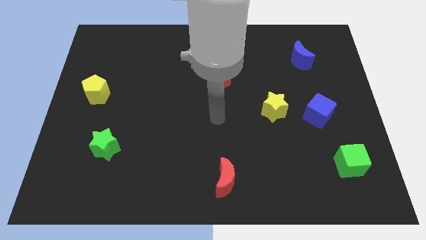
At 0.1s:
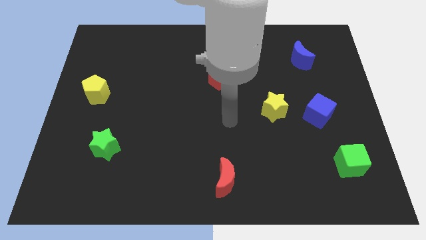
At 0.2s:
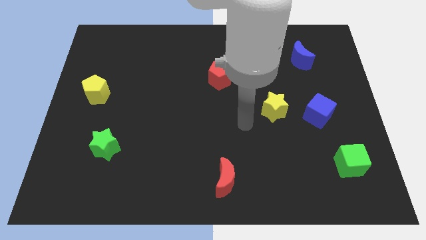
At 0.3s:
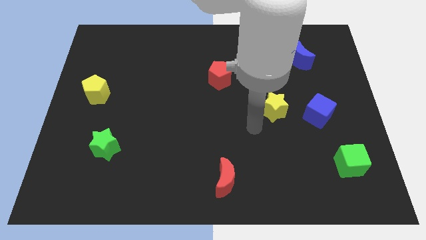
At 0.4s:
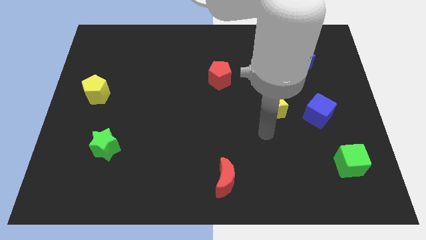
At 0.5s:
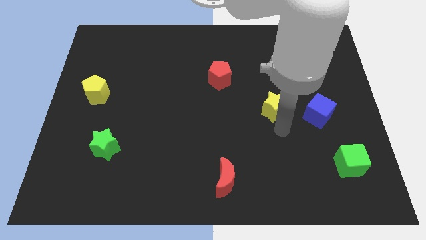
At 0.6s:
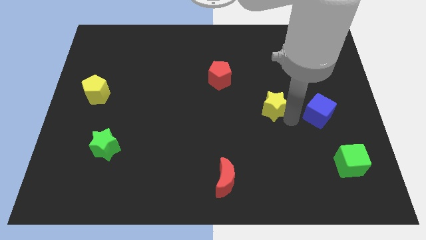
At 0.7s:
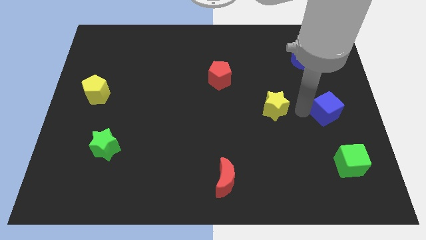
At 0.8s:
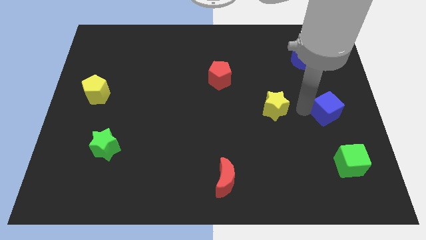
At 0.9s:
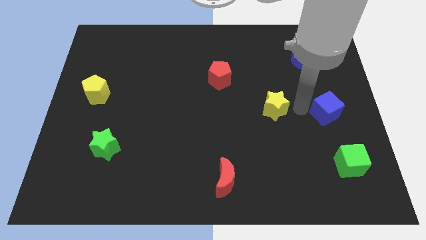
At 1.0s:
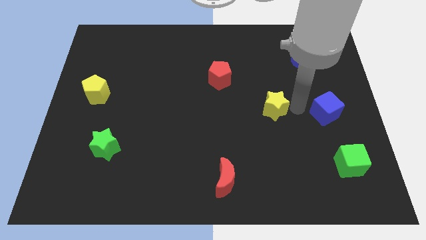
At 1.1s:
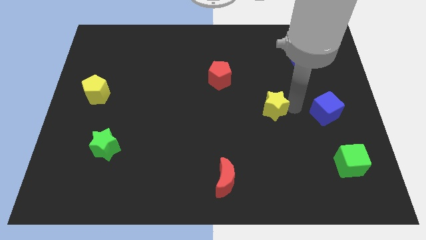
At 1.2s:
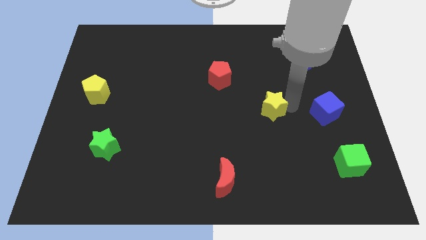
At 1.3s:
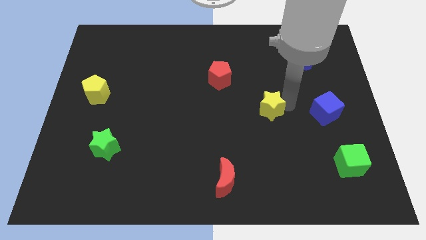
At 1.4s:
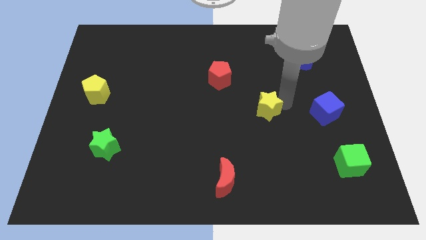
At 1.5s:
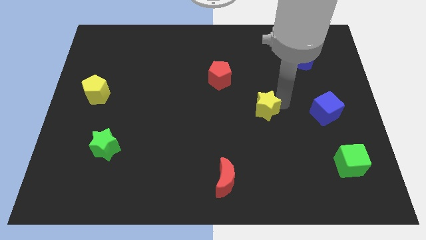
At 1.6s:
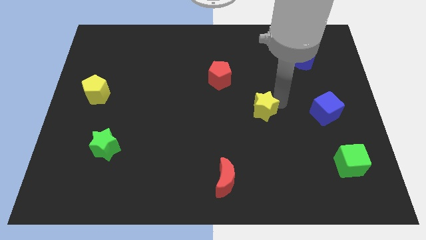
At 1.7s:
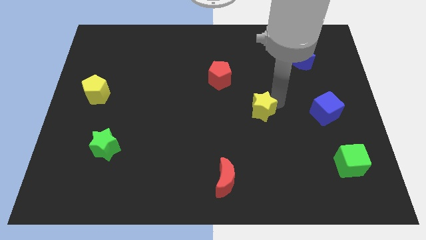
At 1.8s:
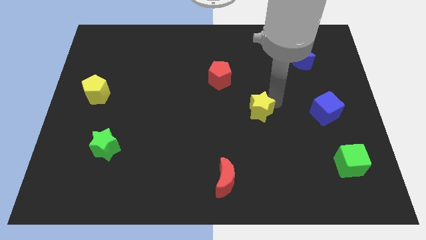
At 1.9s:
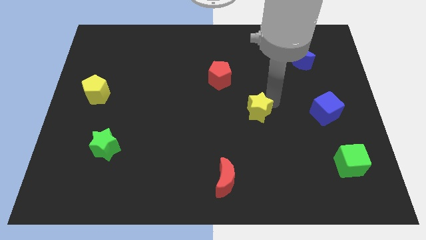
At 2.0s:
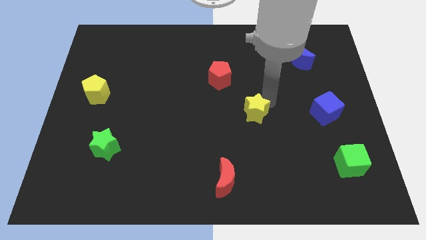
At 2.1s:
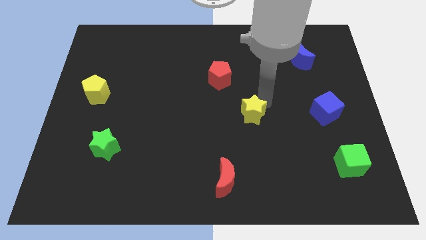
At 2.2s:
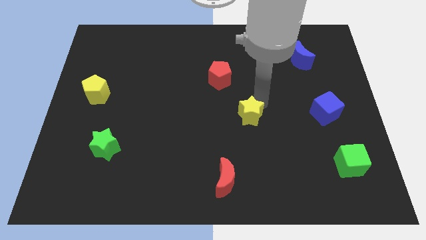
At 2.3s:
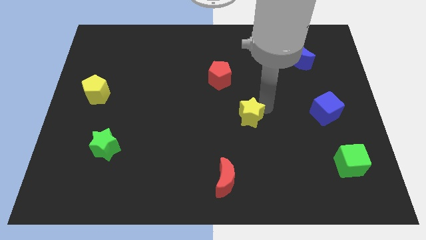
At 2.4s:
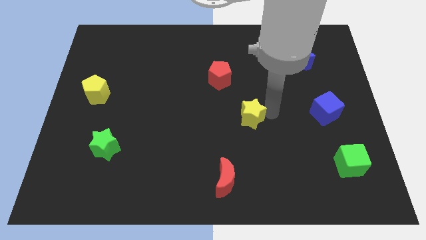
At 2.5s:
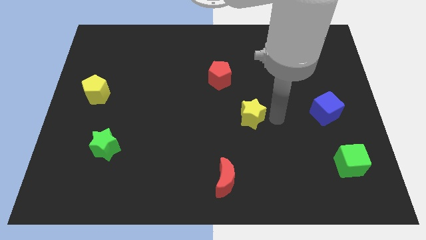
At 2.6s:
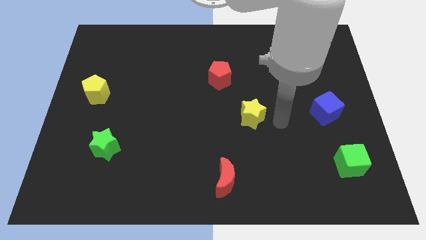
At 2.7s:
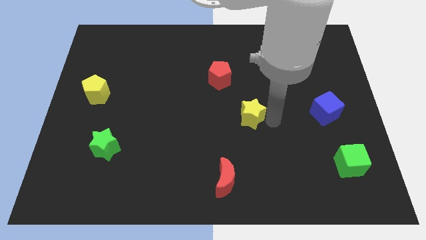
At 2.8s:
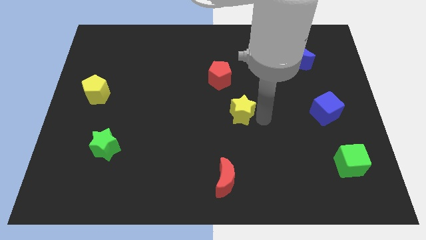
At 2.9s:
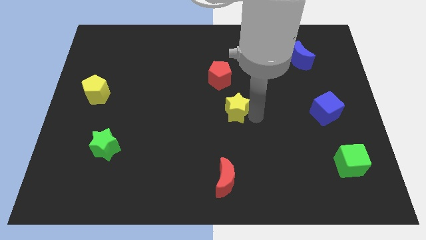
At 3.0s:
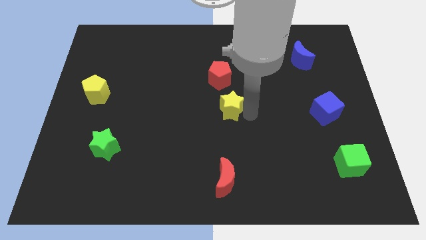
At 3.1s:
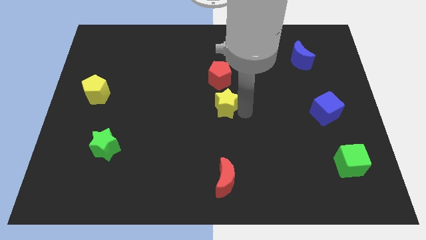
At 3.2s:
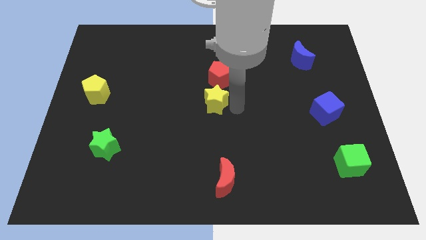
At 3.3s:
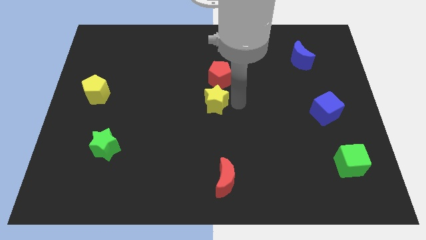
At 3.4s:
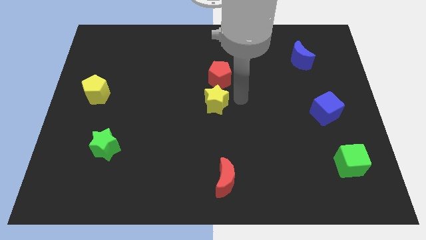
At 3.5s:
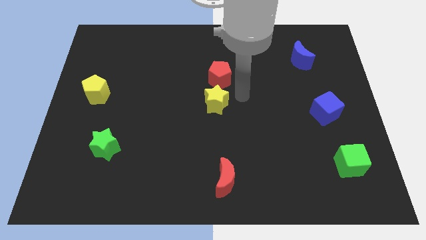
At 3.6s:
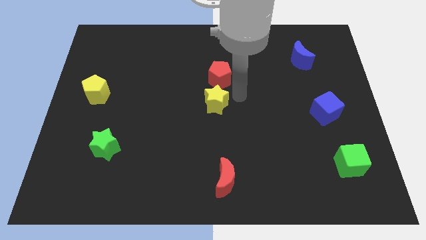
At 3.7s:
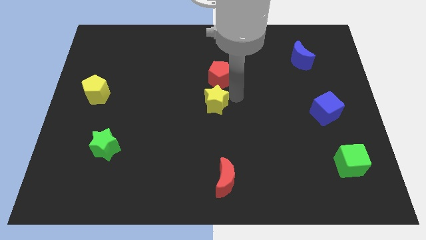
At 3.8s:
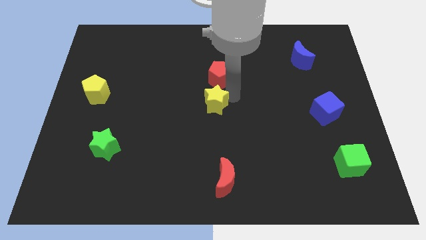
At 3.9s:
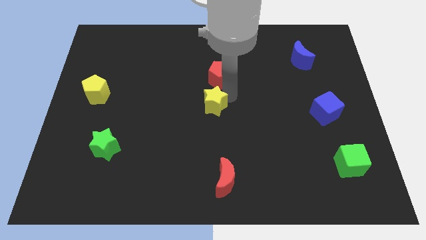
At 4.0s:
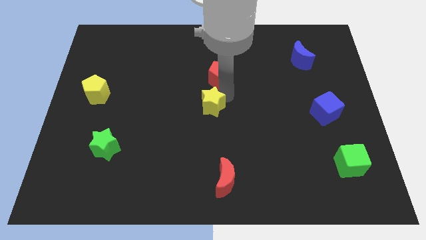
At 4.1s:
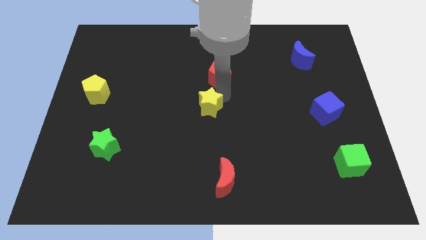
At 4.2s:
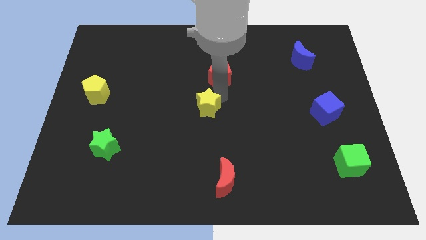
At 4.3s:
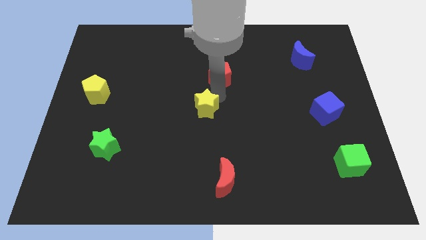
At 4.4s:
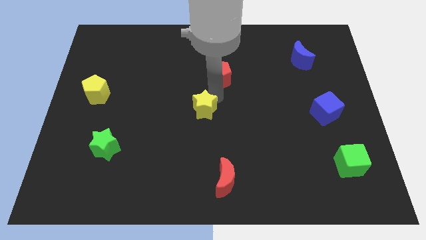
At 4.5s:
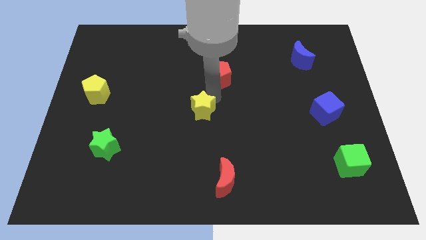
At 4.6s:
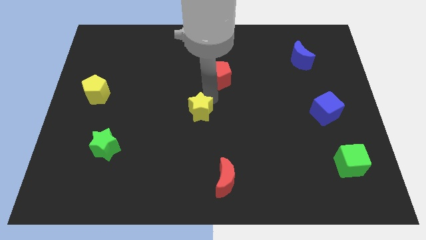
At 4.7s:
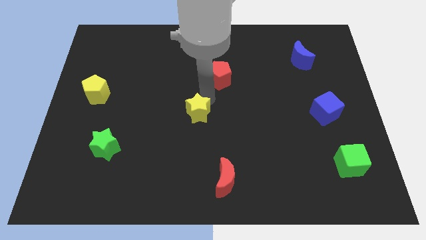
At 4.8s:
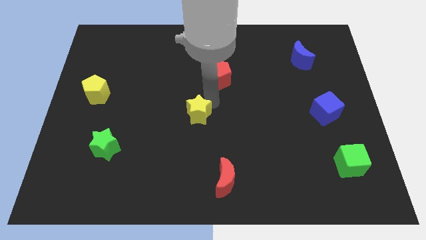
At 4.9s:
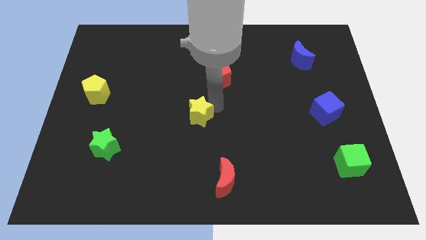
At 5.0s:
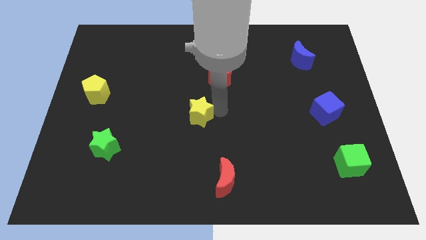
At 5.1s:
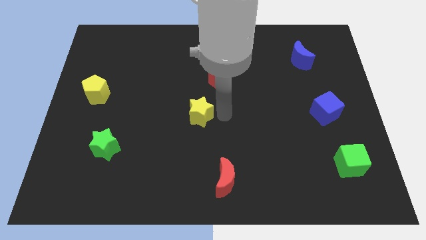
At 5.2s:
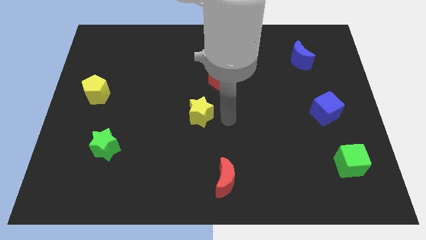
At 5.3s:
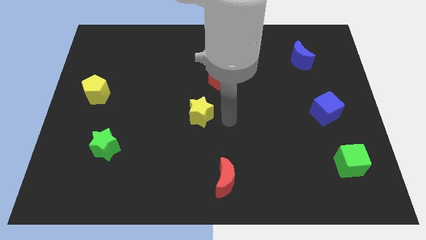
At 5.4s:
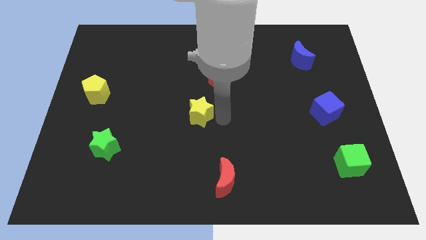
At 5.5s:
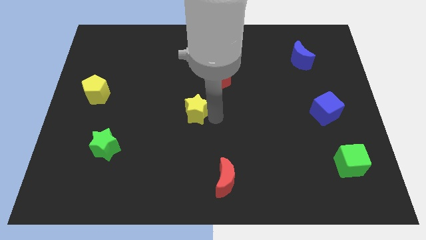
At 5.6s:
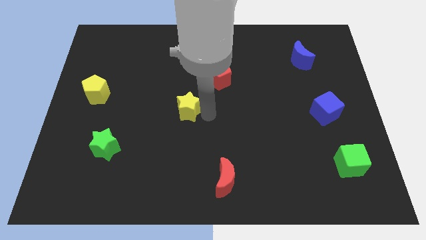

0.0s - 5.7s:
move the yellow star to the left

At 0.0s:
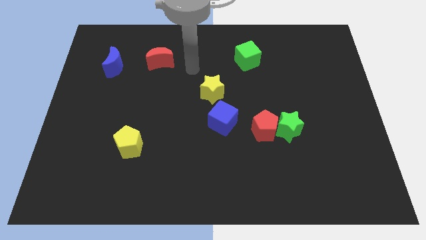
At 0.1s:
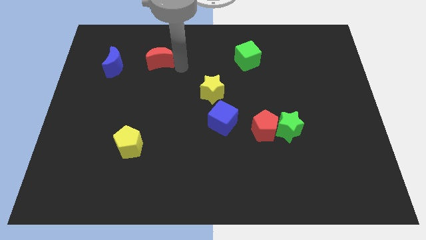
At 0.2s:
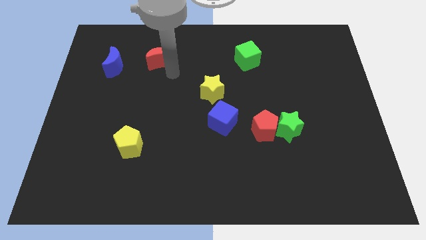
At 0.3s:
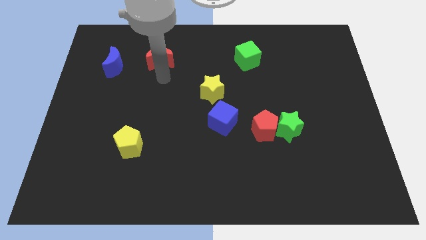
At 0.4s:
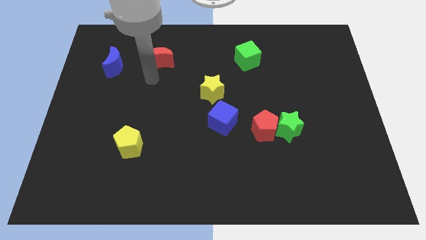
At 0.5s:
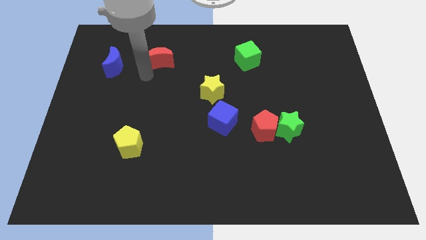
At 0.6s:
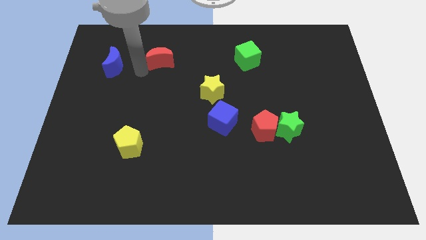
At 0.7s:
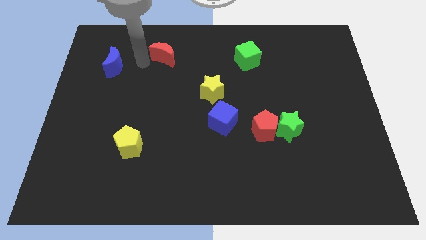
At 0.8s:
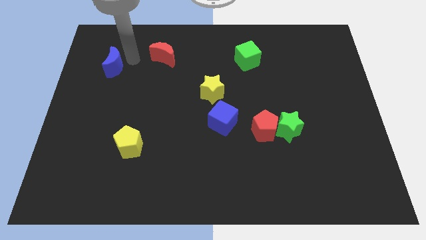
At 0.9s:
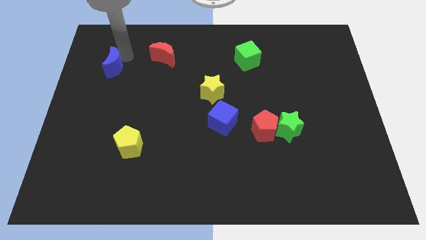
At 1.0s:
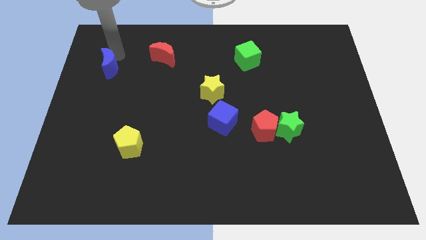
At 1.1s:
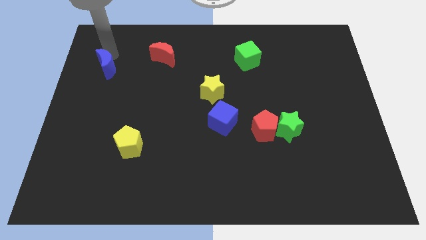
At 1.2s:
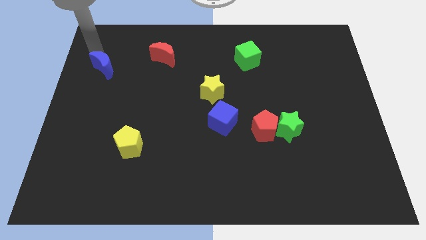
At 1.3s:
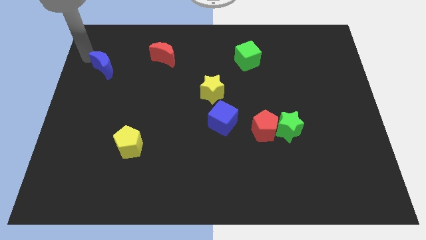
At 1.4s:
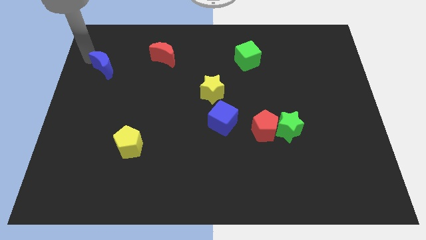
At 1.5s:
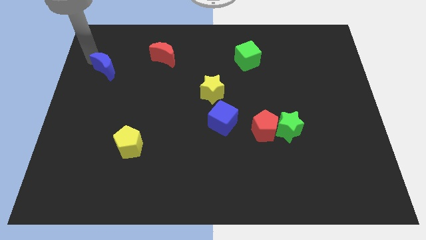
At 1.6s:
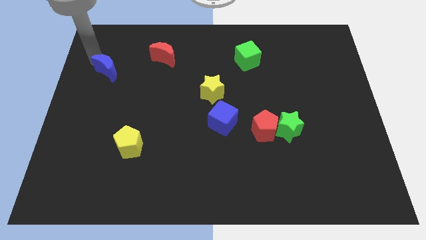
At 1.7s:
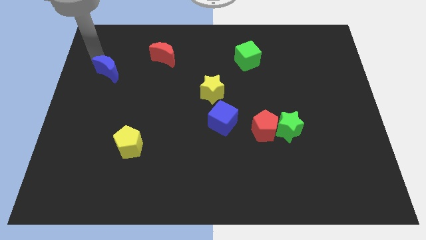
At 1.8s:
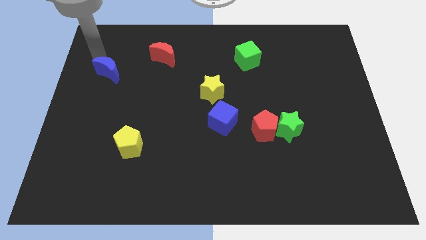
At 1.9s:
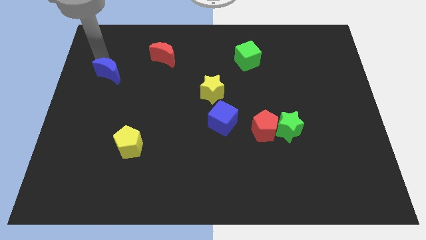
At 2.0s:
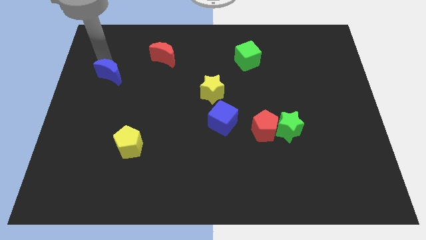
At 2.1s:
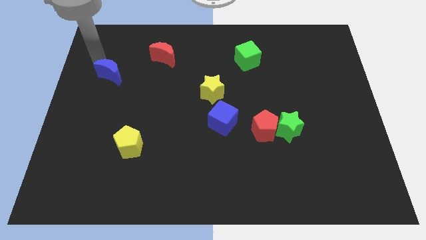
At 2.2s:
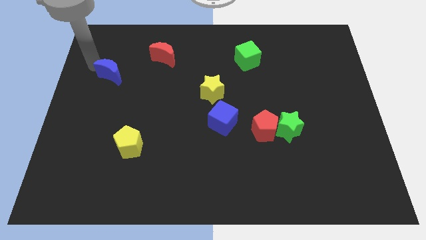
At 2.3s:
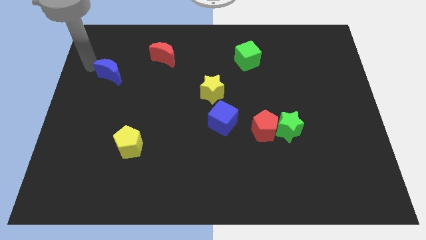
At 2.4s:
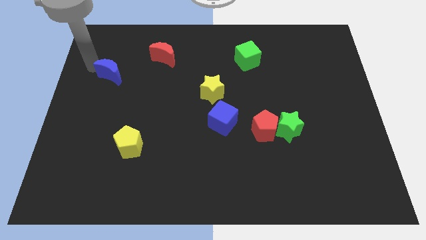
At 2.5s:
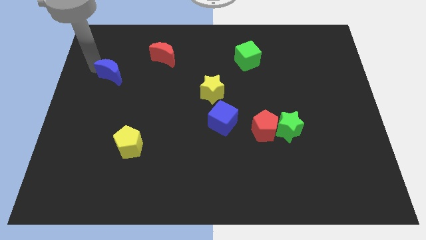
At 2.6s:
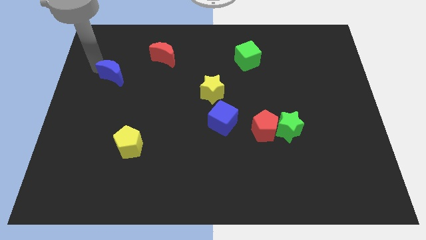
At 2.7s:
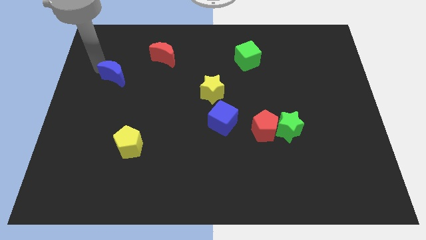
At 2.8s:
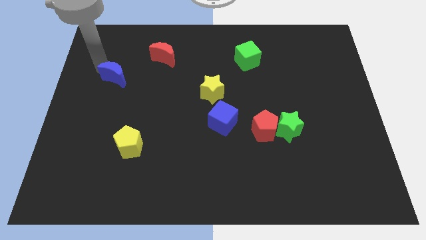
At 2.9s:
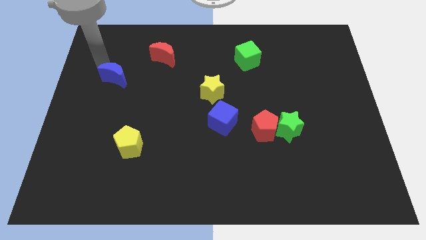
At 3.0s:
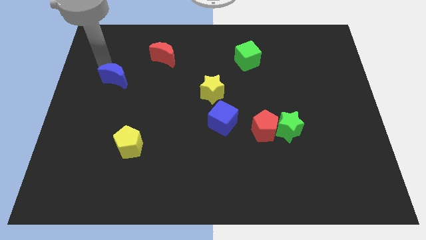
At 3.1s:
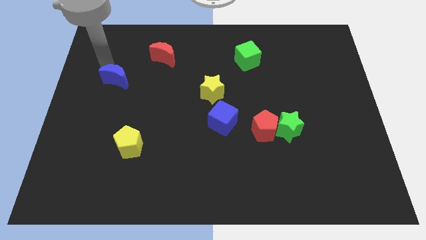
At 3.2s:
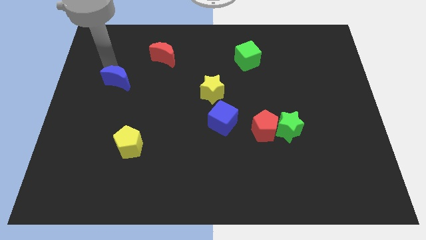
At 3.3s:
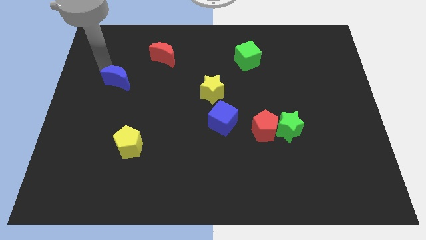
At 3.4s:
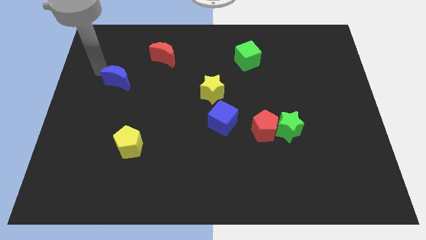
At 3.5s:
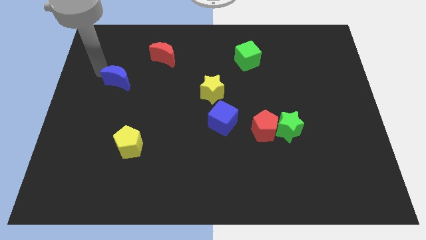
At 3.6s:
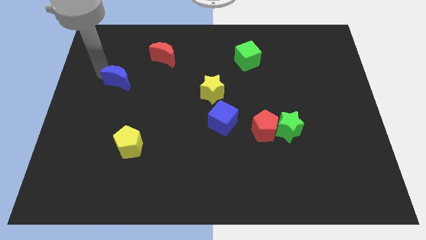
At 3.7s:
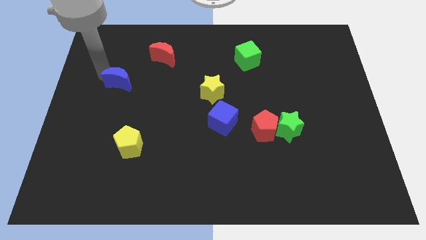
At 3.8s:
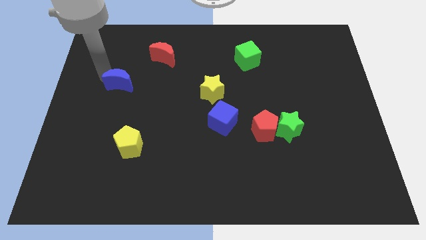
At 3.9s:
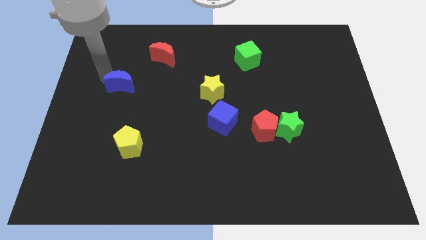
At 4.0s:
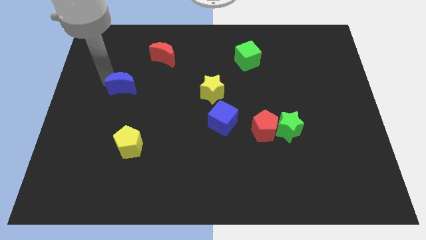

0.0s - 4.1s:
push the blue moon downwards and then to the right slightly
